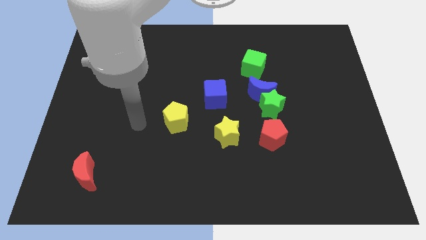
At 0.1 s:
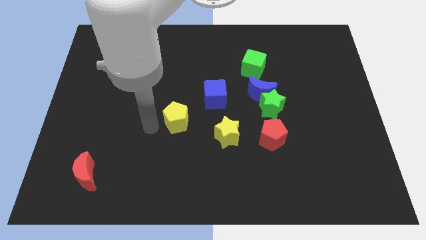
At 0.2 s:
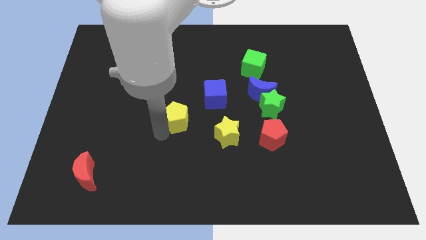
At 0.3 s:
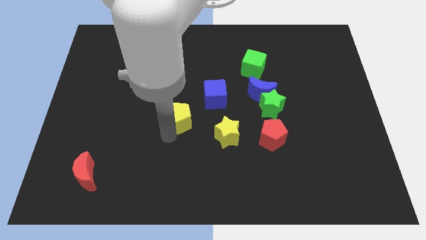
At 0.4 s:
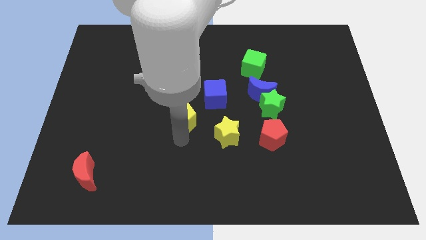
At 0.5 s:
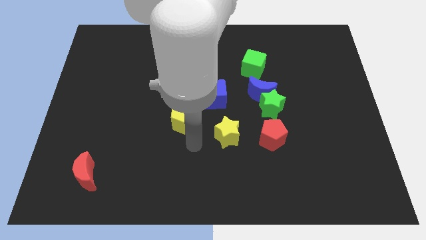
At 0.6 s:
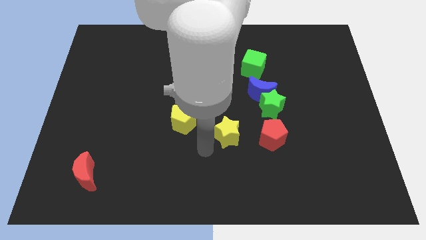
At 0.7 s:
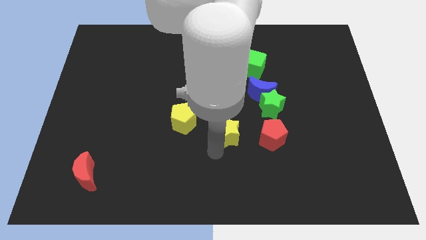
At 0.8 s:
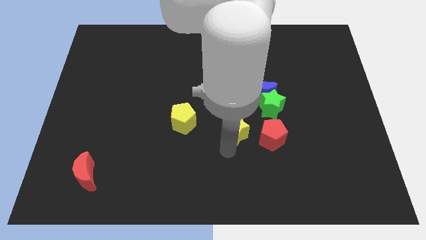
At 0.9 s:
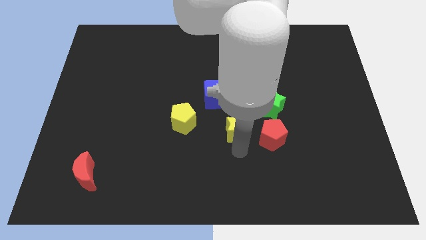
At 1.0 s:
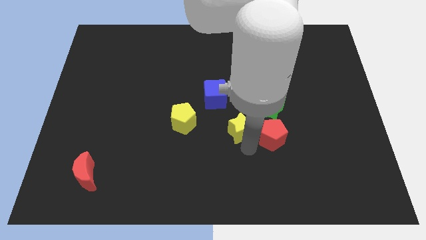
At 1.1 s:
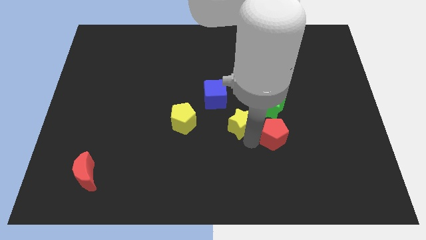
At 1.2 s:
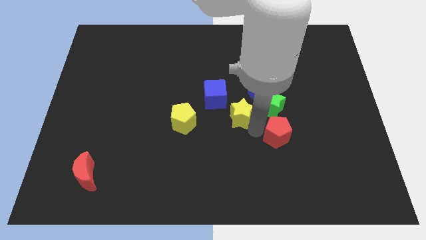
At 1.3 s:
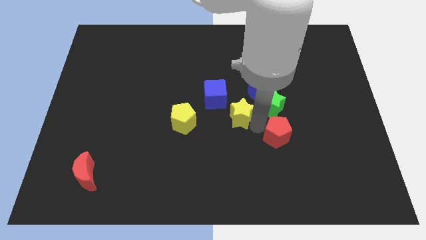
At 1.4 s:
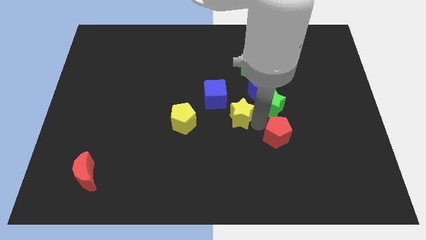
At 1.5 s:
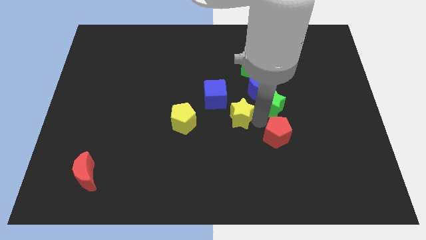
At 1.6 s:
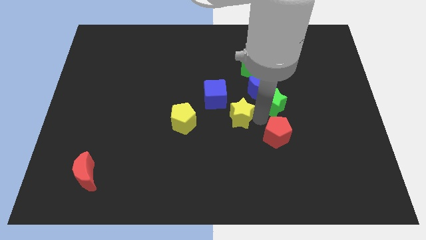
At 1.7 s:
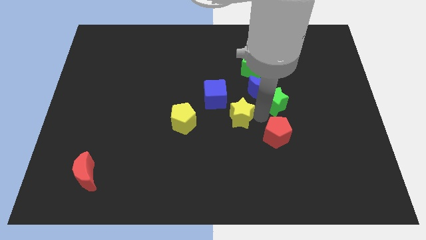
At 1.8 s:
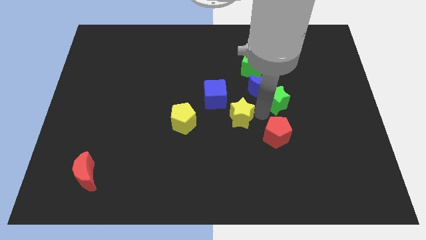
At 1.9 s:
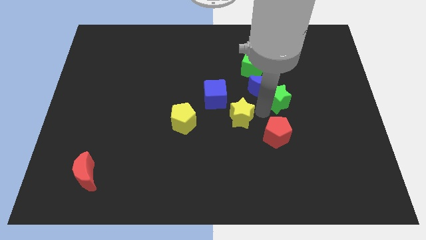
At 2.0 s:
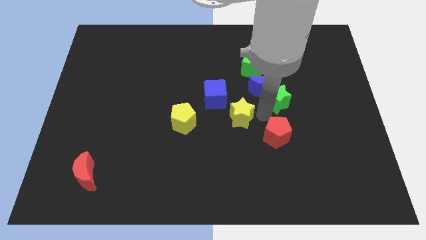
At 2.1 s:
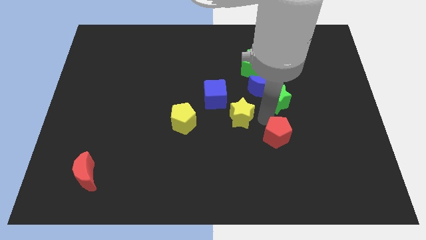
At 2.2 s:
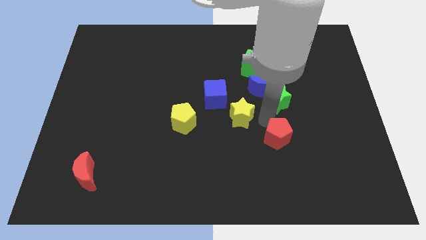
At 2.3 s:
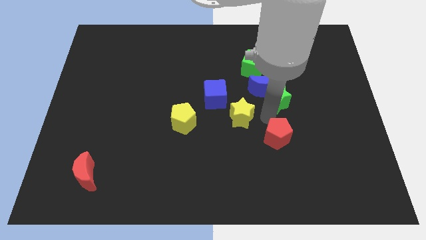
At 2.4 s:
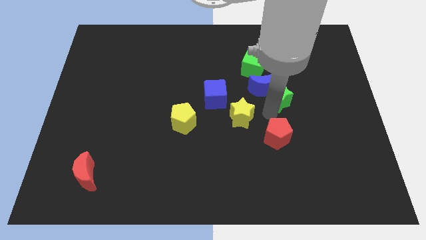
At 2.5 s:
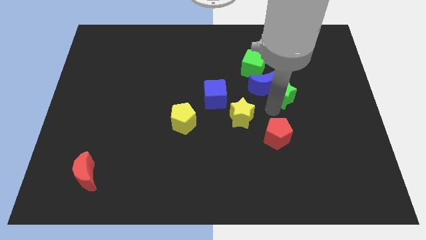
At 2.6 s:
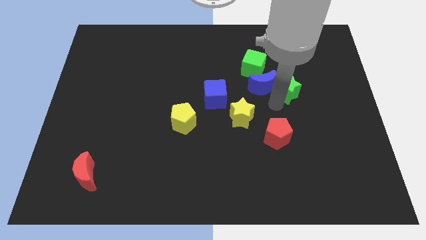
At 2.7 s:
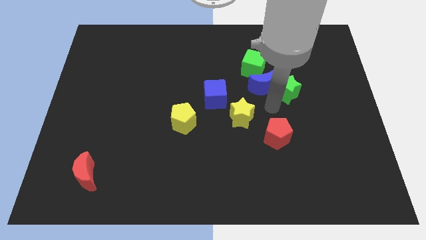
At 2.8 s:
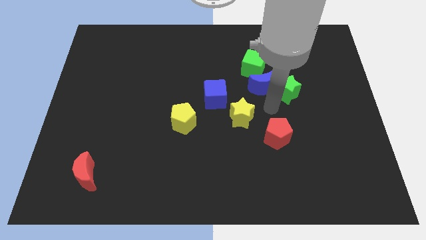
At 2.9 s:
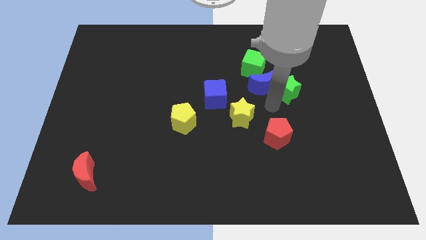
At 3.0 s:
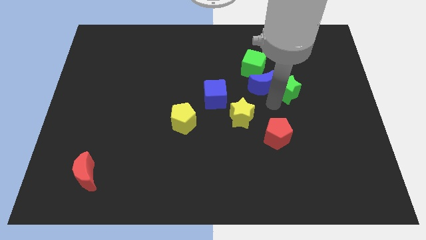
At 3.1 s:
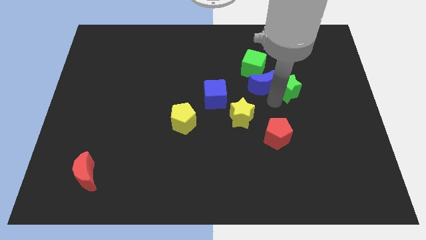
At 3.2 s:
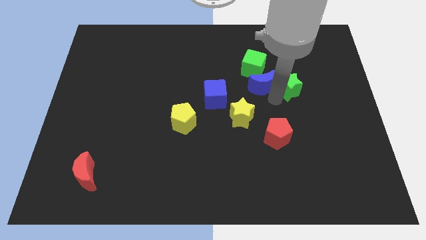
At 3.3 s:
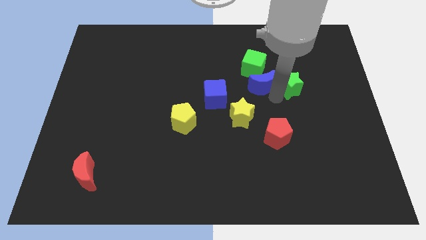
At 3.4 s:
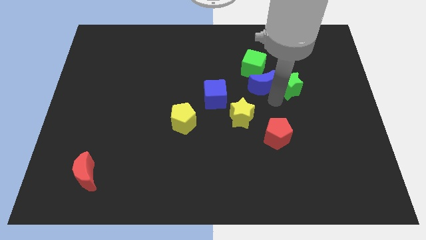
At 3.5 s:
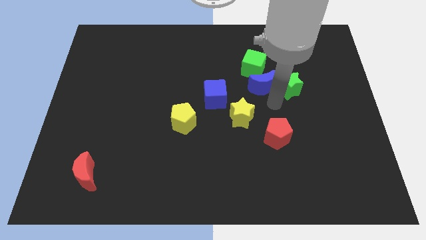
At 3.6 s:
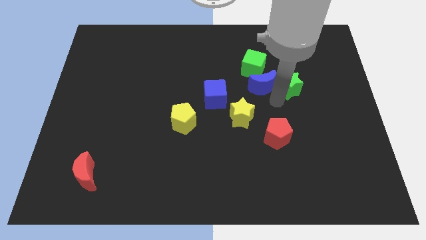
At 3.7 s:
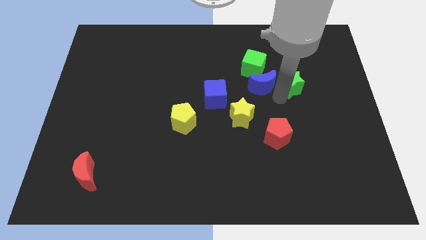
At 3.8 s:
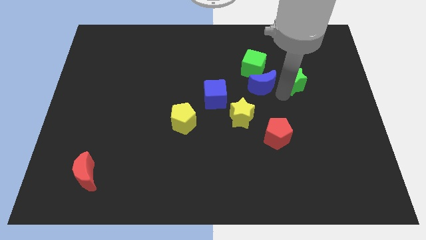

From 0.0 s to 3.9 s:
separate the green star from the blue moon and red pentagon

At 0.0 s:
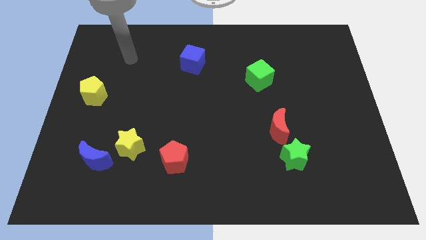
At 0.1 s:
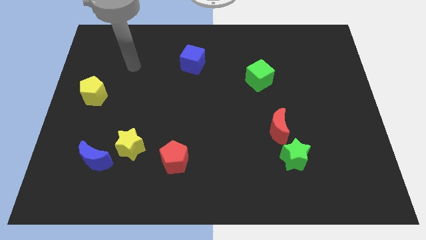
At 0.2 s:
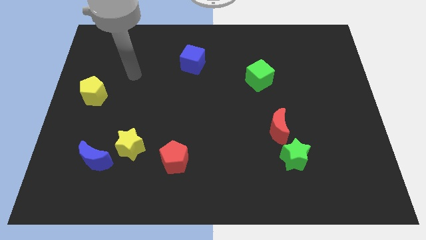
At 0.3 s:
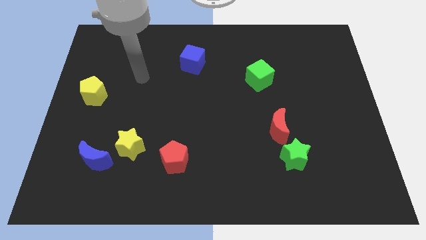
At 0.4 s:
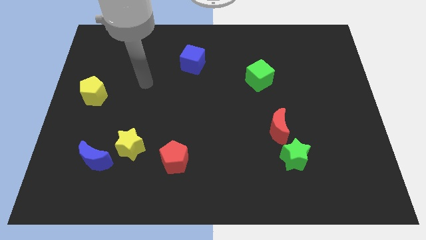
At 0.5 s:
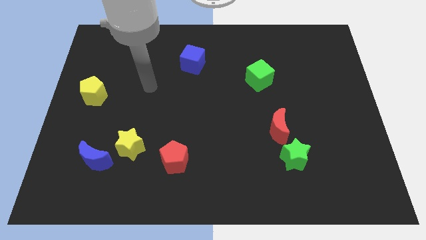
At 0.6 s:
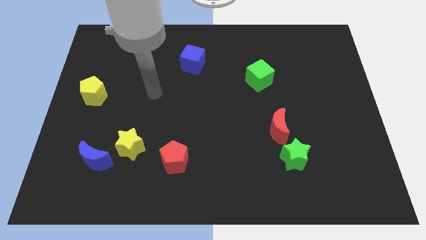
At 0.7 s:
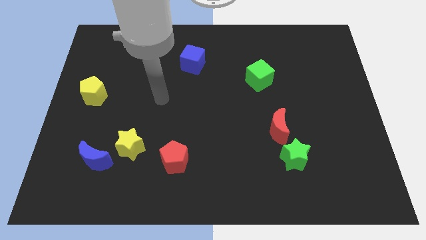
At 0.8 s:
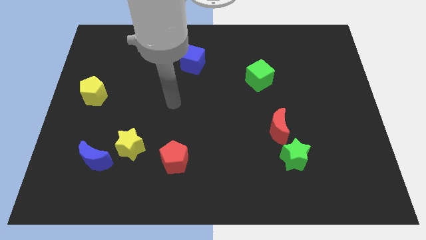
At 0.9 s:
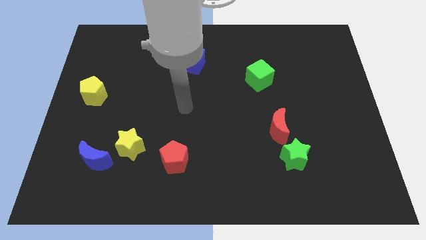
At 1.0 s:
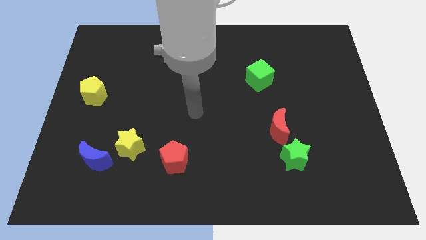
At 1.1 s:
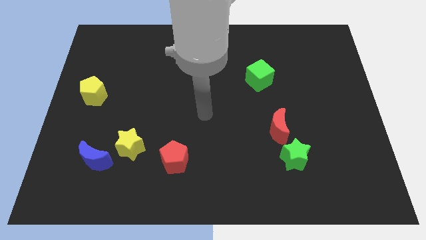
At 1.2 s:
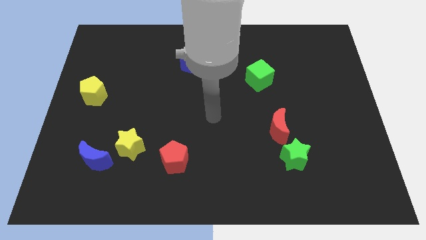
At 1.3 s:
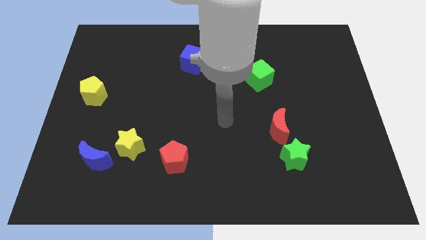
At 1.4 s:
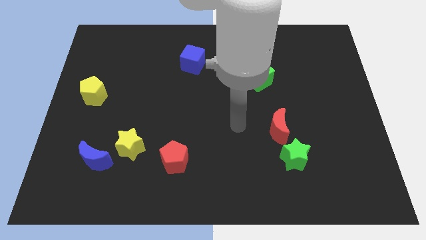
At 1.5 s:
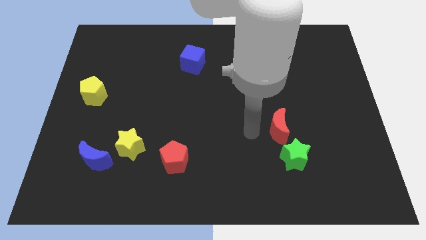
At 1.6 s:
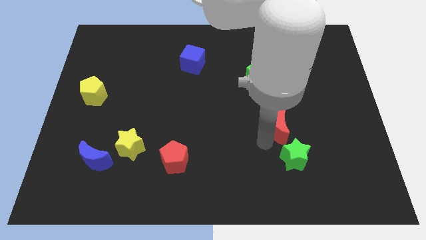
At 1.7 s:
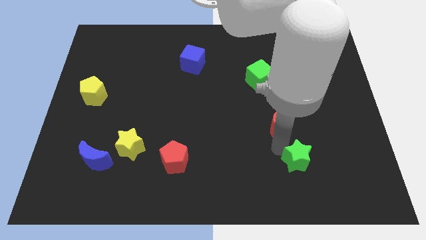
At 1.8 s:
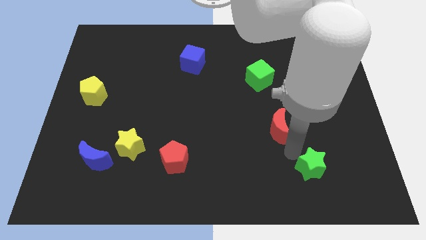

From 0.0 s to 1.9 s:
move the red moon away from the green star

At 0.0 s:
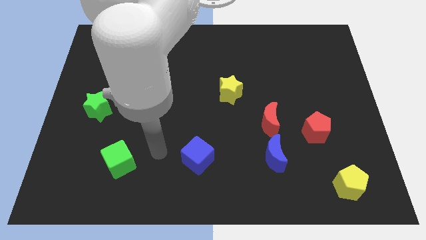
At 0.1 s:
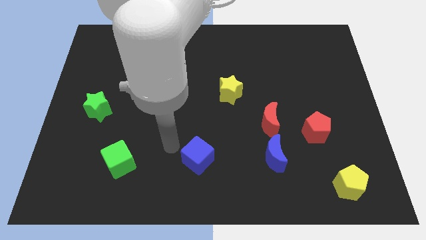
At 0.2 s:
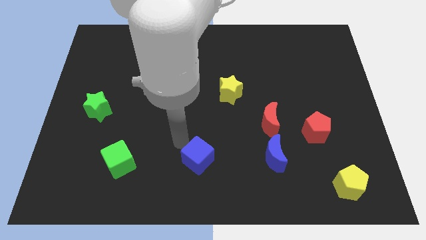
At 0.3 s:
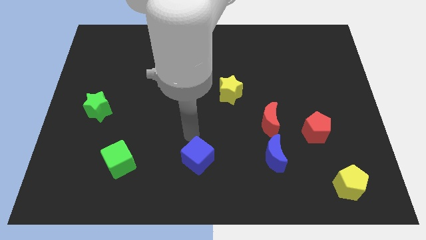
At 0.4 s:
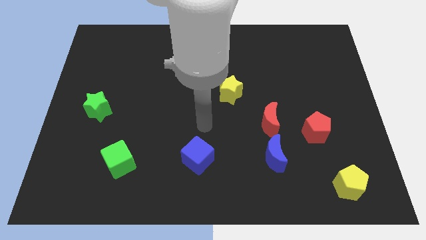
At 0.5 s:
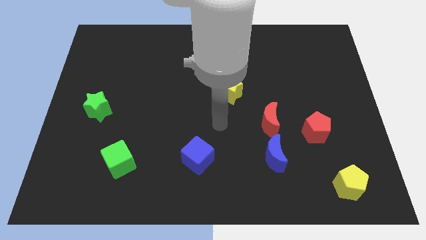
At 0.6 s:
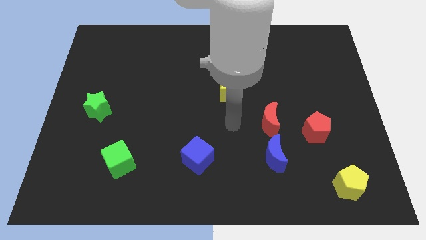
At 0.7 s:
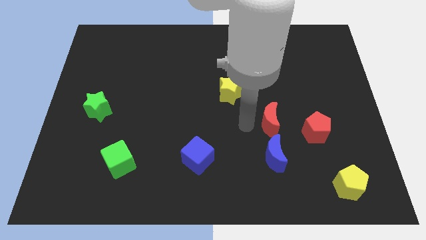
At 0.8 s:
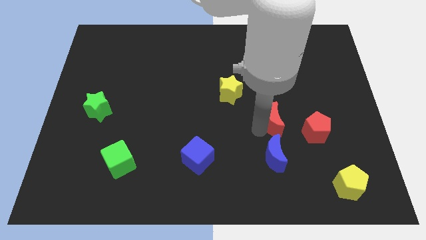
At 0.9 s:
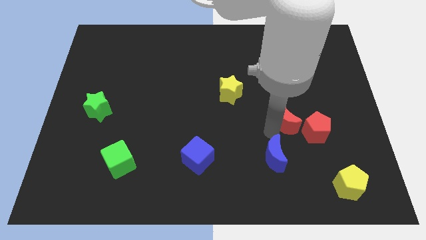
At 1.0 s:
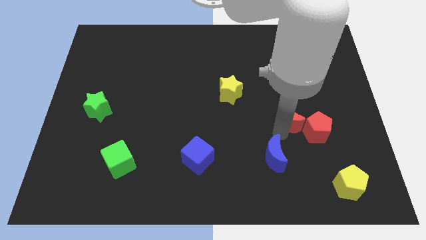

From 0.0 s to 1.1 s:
pull the blue moon apart from the red moon

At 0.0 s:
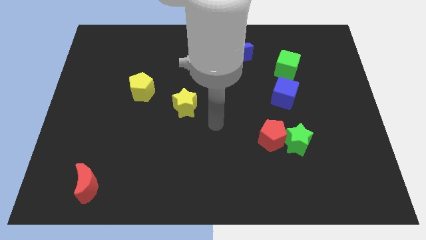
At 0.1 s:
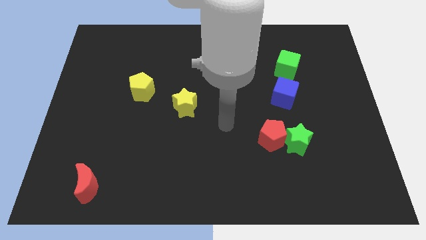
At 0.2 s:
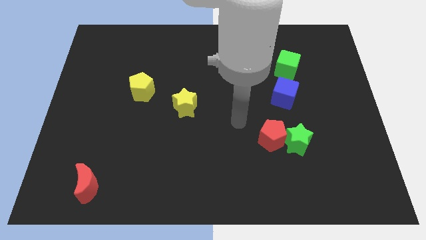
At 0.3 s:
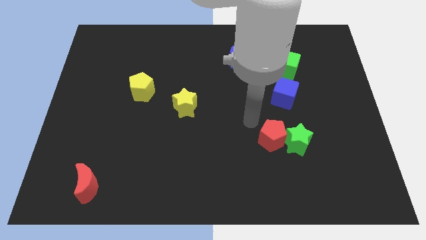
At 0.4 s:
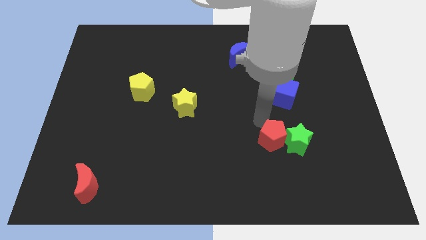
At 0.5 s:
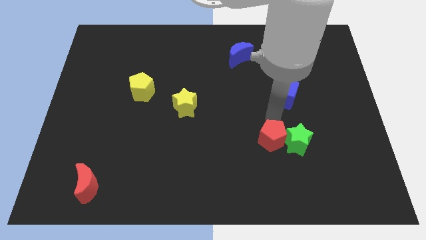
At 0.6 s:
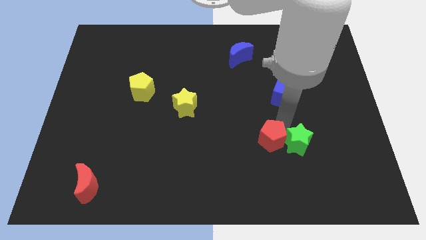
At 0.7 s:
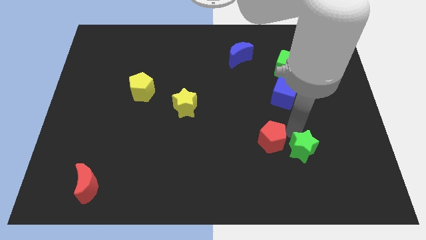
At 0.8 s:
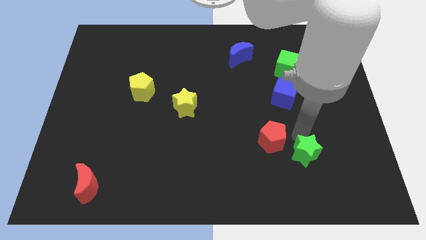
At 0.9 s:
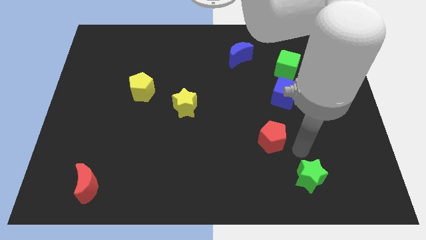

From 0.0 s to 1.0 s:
move the red pentagon away from the green star

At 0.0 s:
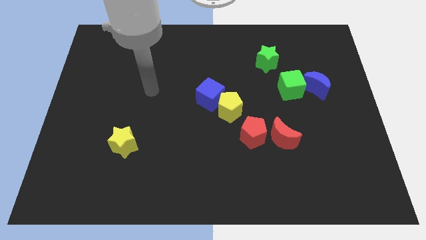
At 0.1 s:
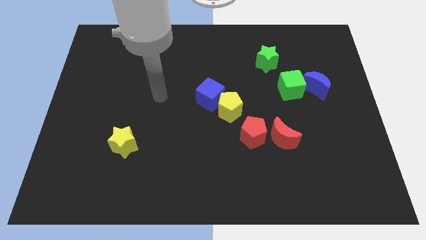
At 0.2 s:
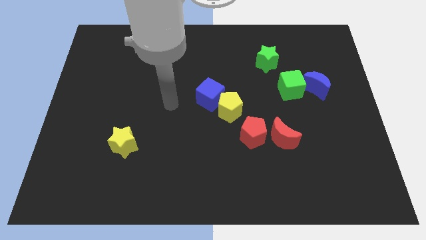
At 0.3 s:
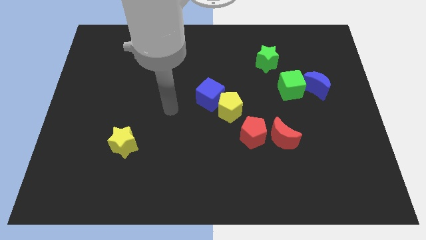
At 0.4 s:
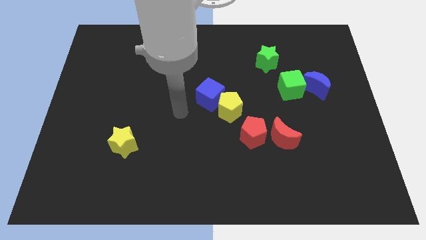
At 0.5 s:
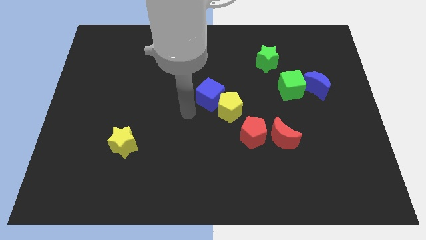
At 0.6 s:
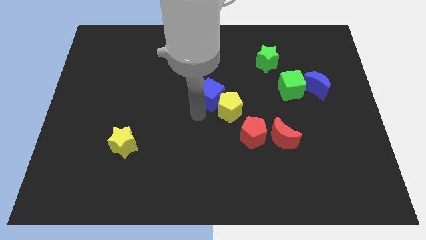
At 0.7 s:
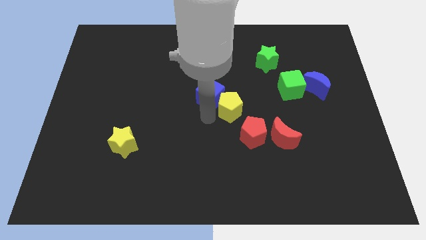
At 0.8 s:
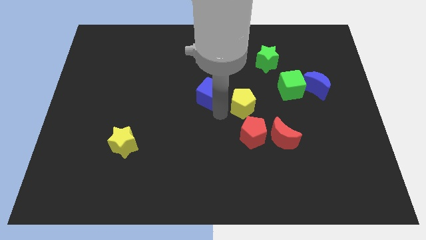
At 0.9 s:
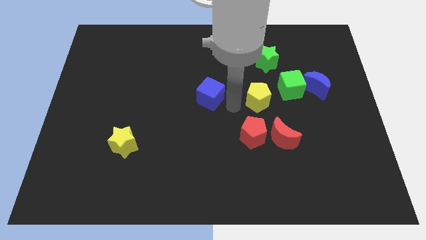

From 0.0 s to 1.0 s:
move the blue cube away from the yellow pentagon

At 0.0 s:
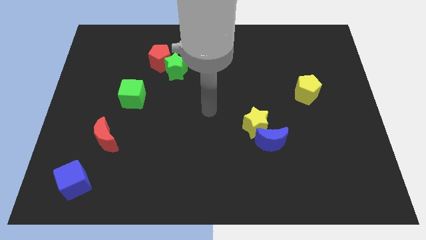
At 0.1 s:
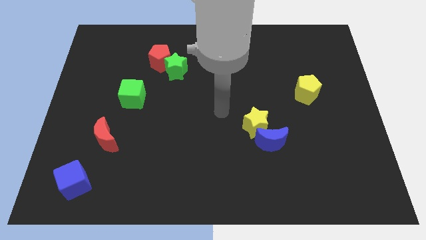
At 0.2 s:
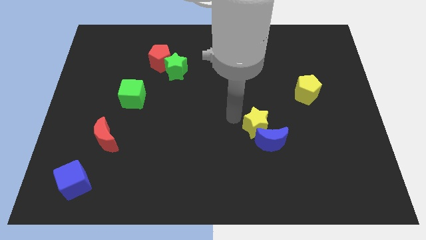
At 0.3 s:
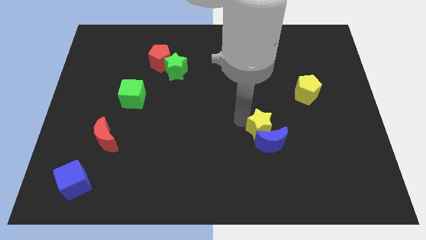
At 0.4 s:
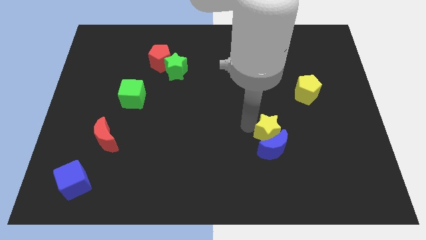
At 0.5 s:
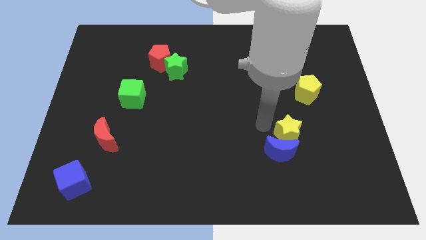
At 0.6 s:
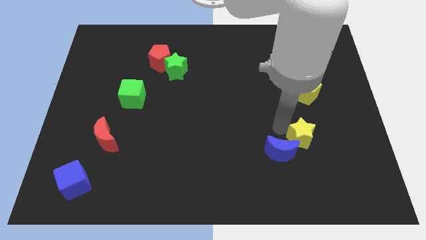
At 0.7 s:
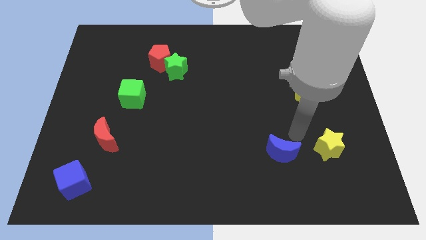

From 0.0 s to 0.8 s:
separate the blue moon from the yellow star
